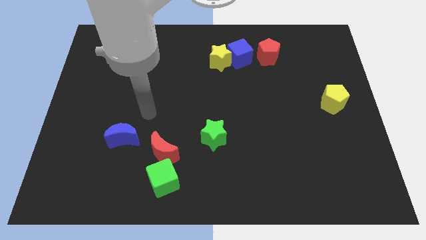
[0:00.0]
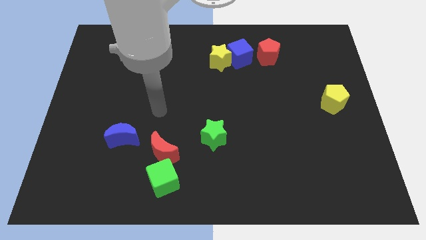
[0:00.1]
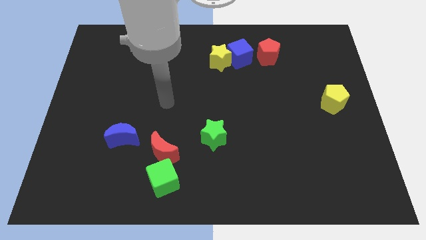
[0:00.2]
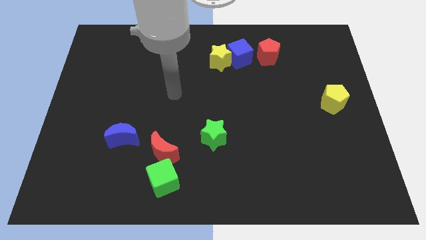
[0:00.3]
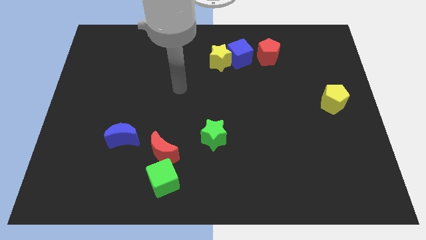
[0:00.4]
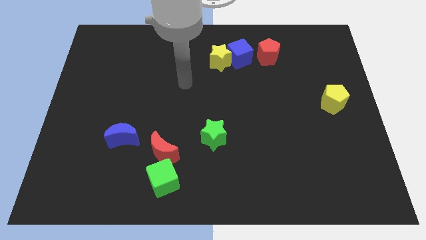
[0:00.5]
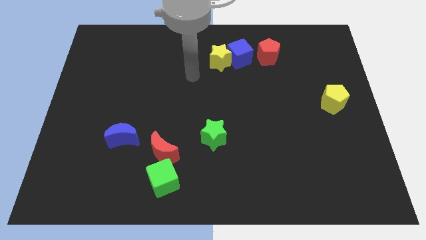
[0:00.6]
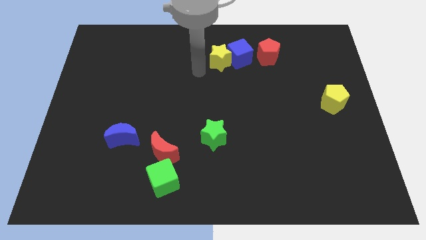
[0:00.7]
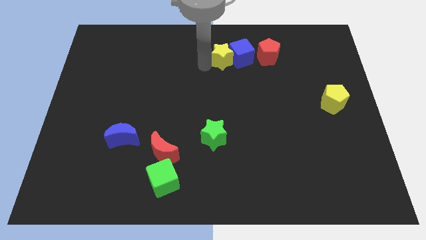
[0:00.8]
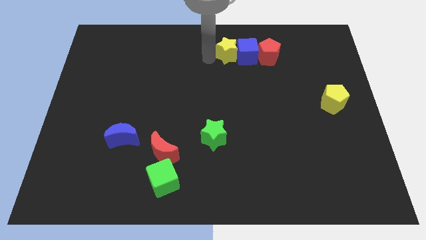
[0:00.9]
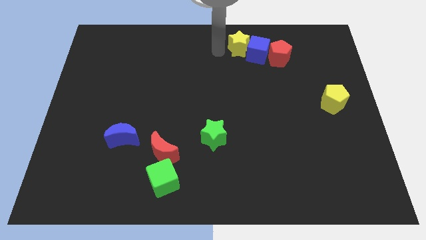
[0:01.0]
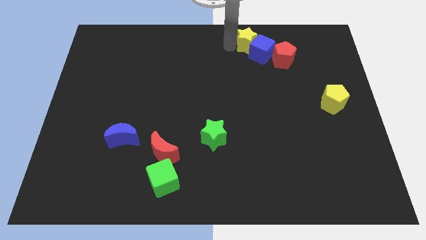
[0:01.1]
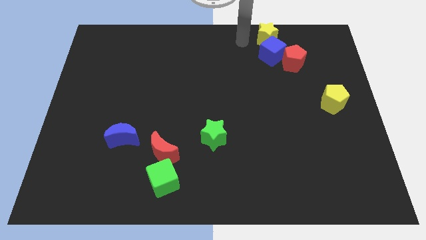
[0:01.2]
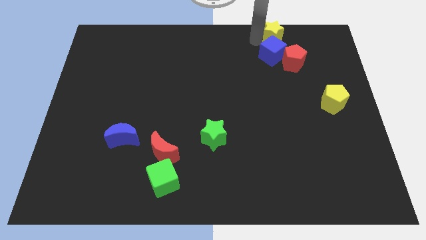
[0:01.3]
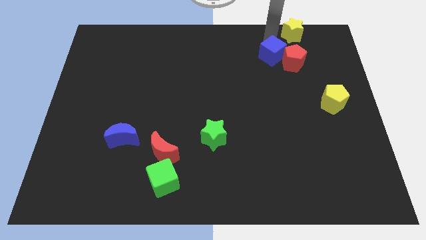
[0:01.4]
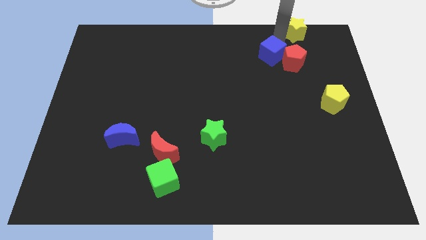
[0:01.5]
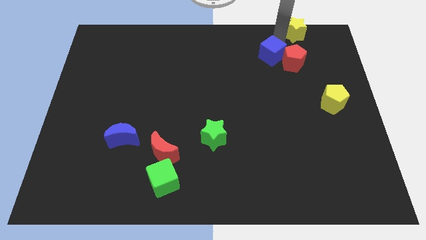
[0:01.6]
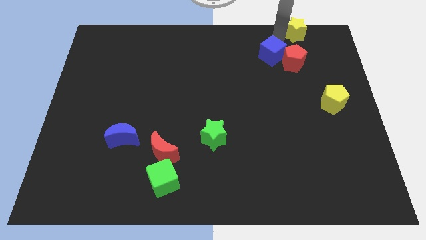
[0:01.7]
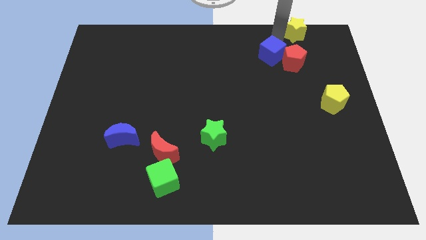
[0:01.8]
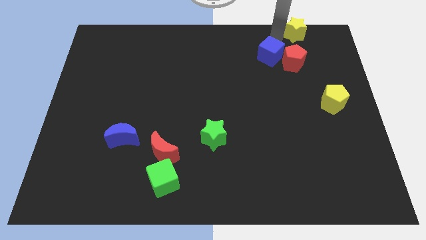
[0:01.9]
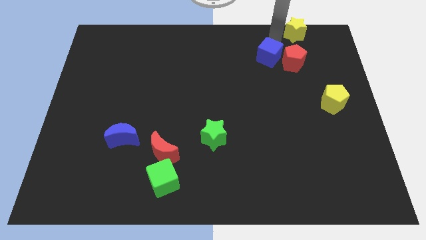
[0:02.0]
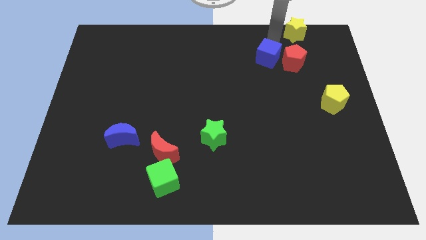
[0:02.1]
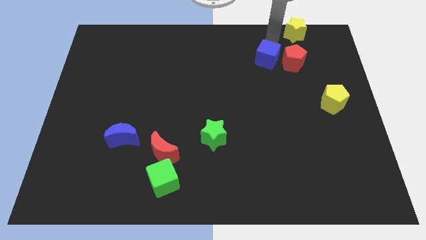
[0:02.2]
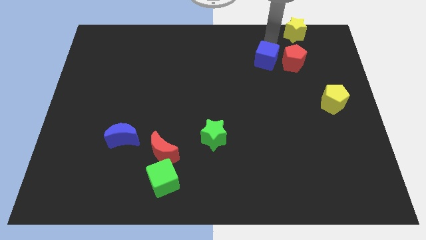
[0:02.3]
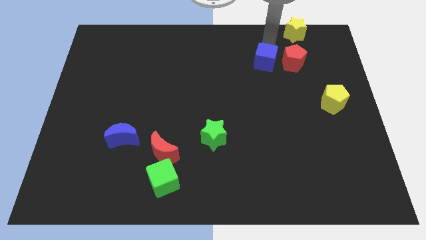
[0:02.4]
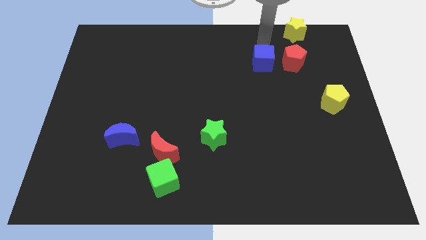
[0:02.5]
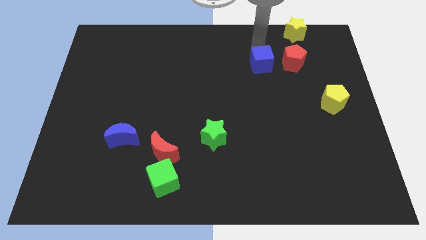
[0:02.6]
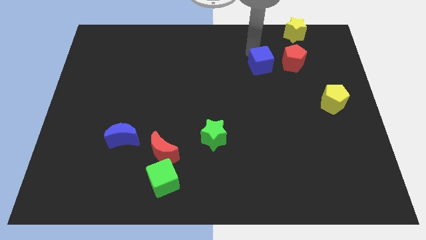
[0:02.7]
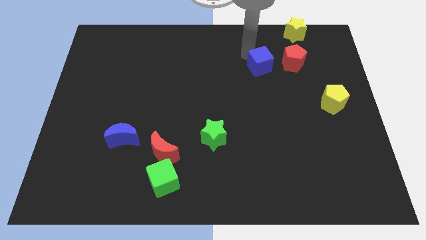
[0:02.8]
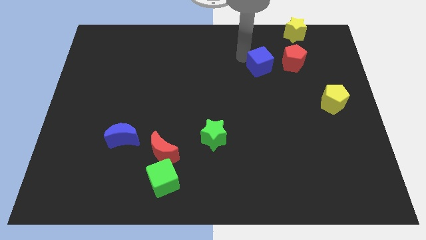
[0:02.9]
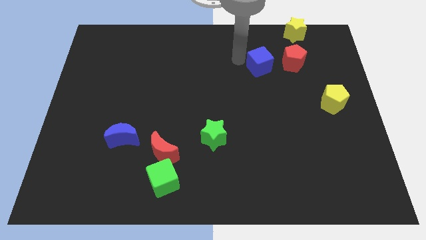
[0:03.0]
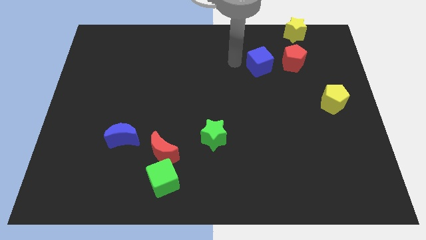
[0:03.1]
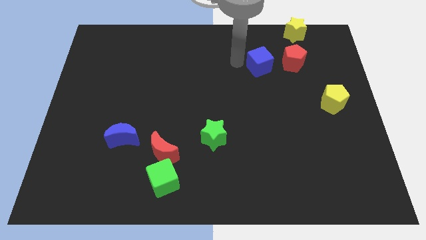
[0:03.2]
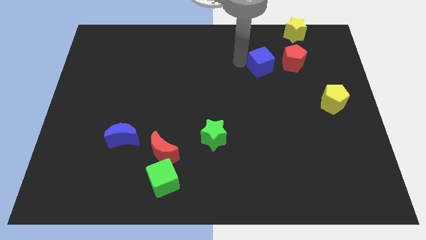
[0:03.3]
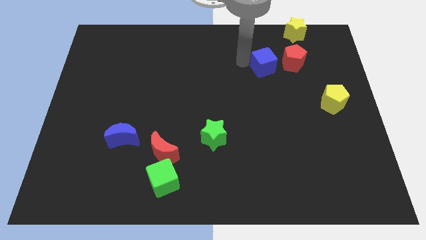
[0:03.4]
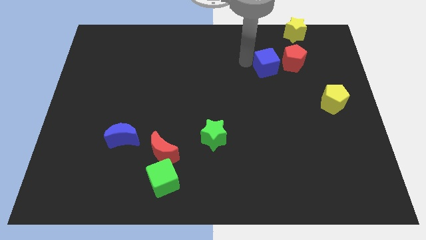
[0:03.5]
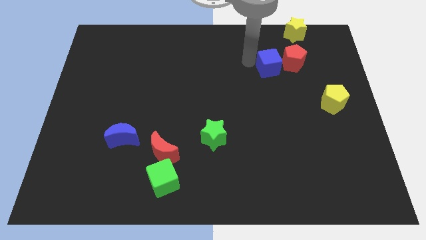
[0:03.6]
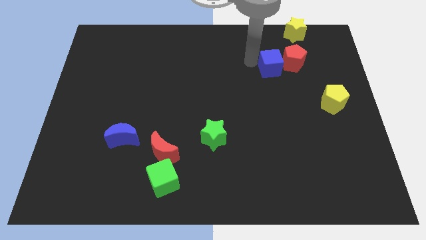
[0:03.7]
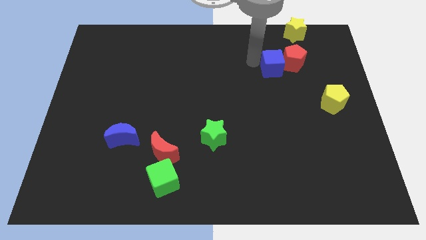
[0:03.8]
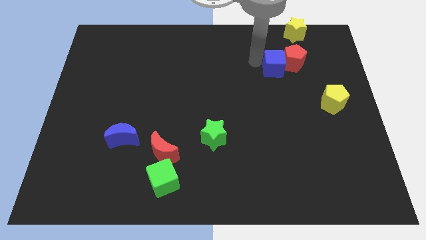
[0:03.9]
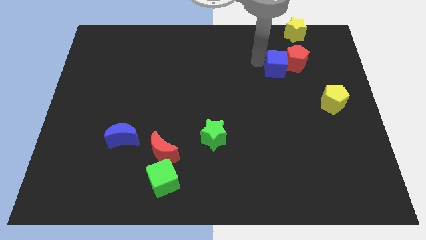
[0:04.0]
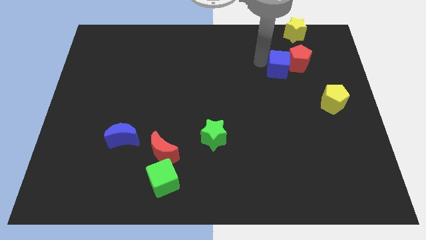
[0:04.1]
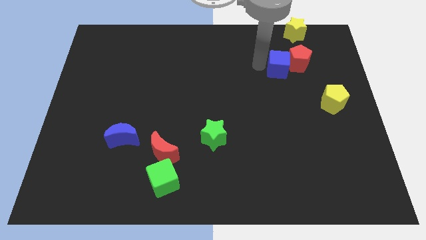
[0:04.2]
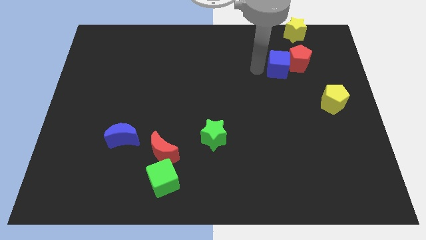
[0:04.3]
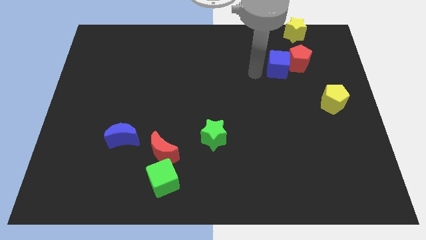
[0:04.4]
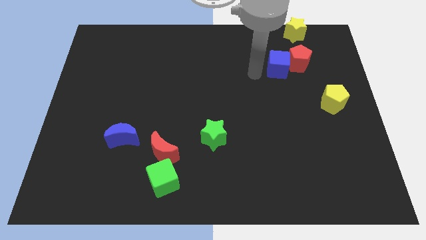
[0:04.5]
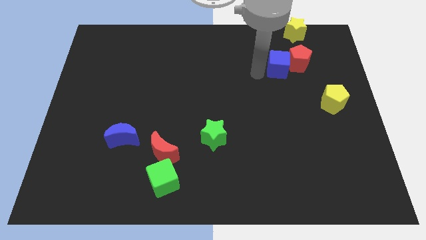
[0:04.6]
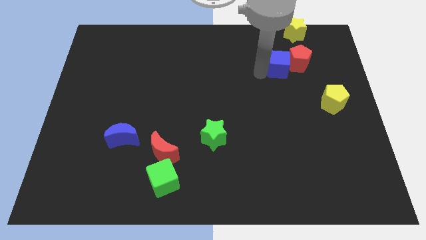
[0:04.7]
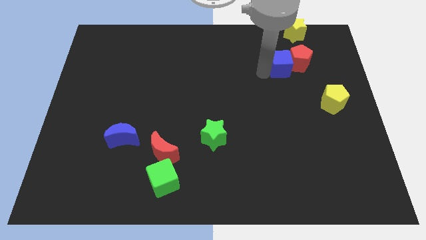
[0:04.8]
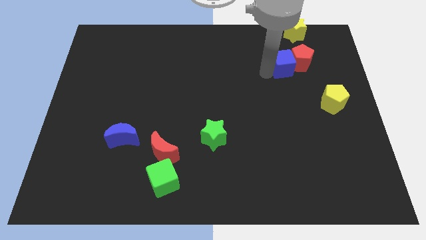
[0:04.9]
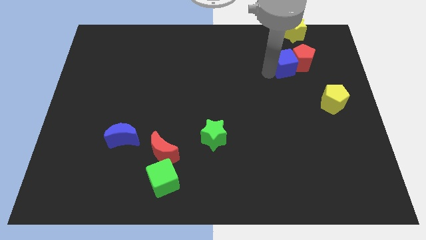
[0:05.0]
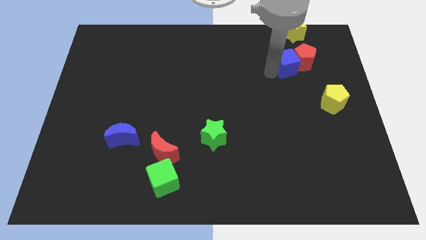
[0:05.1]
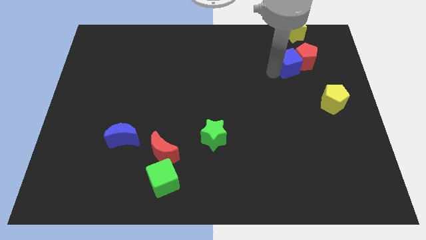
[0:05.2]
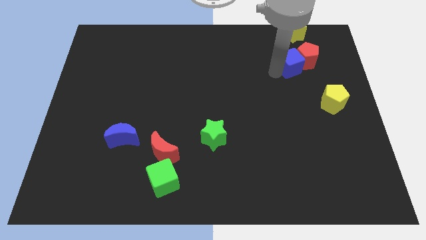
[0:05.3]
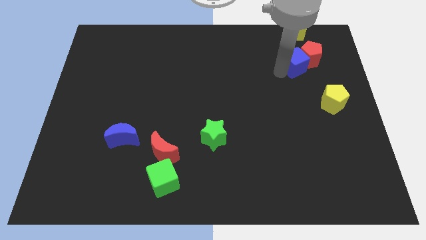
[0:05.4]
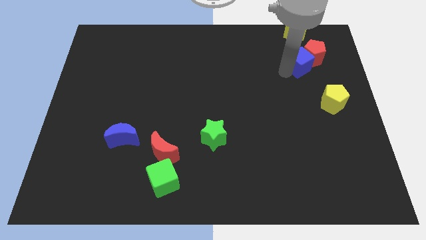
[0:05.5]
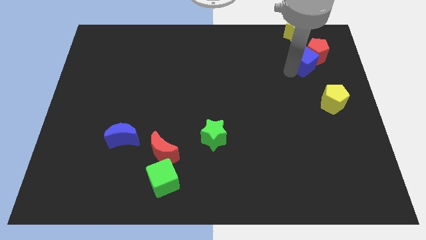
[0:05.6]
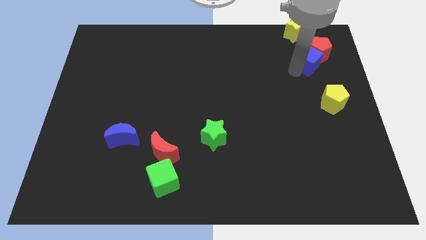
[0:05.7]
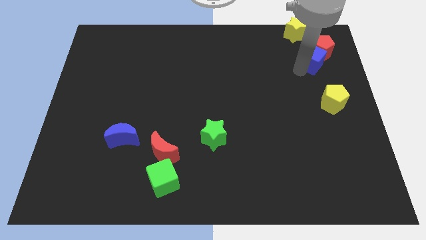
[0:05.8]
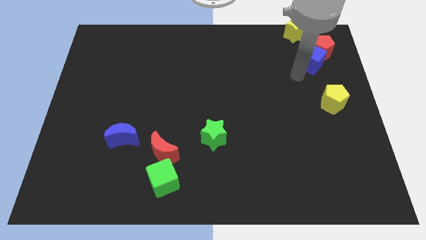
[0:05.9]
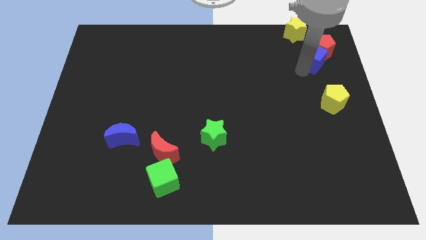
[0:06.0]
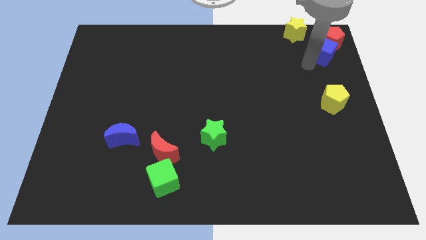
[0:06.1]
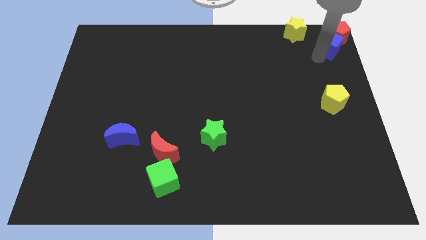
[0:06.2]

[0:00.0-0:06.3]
put the blue cube to the top right corner
